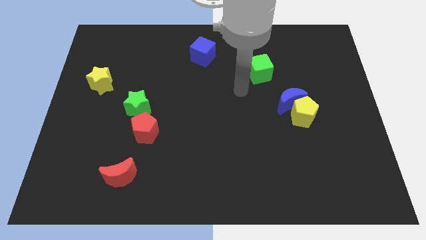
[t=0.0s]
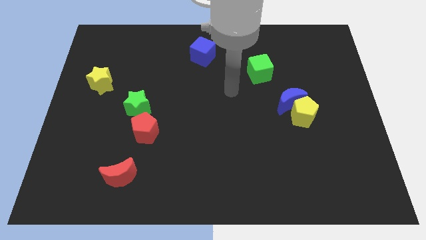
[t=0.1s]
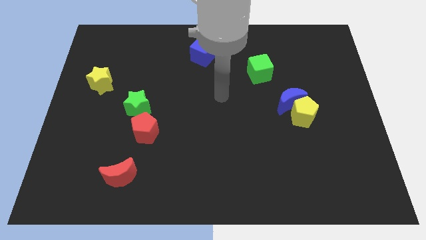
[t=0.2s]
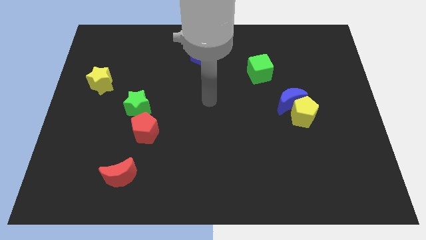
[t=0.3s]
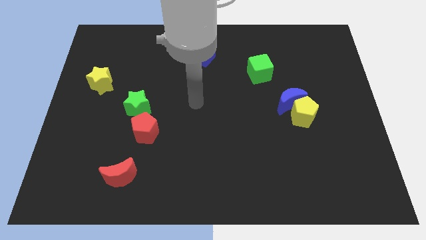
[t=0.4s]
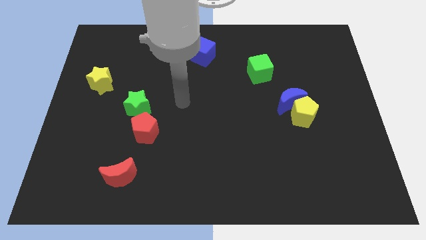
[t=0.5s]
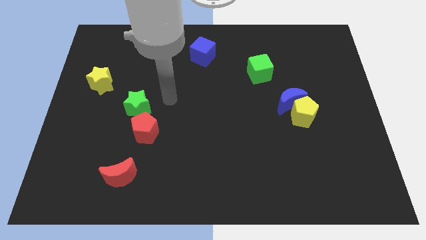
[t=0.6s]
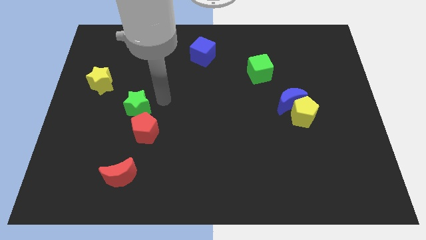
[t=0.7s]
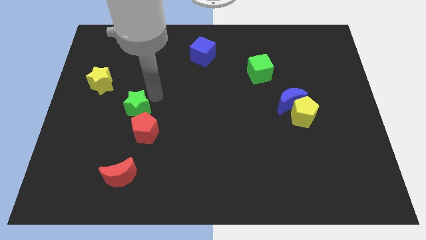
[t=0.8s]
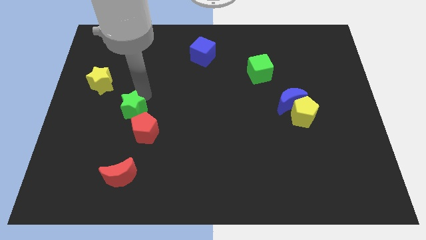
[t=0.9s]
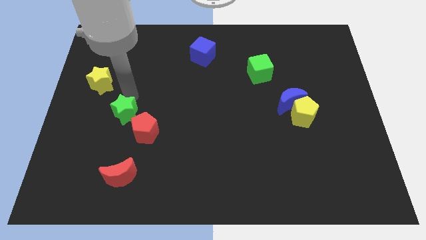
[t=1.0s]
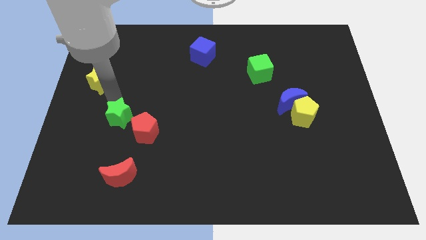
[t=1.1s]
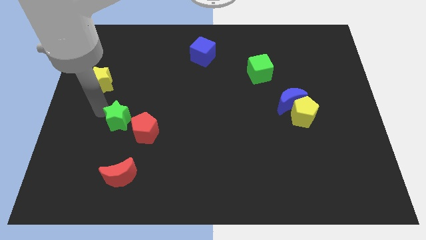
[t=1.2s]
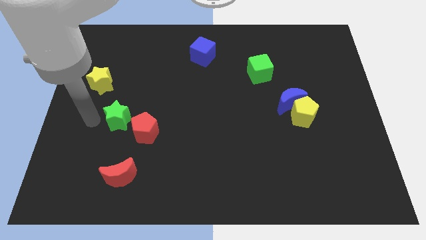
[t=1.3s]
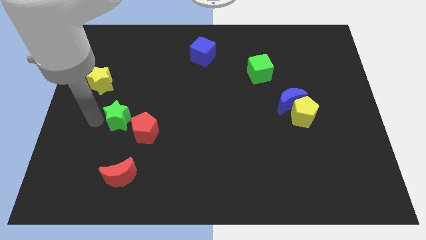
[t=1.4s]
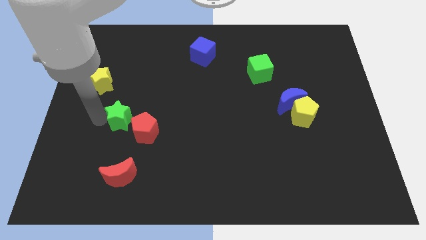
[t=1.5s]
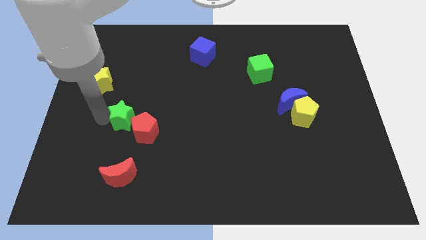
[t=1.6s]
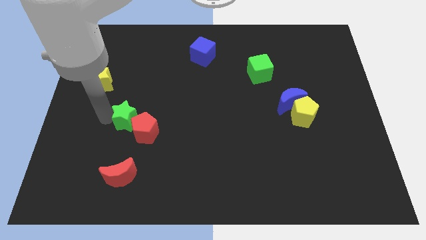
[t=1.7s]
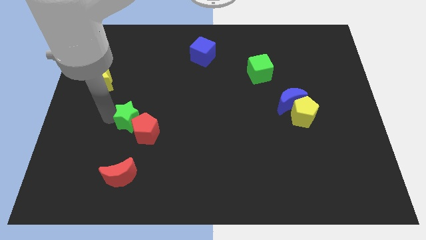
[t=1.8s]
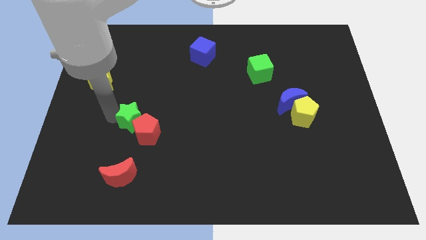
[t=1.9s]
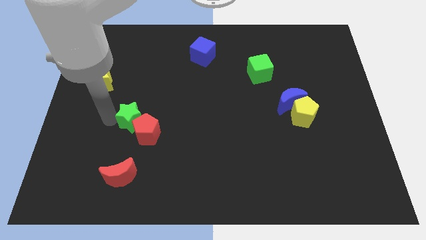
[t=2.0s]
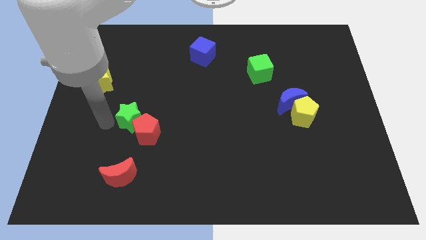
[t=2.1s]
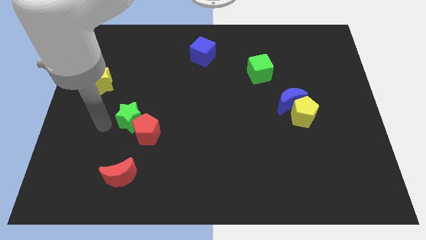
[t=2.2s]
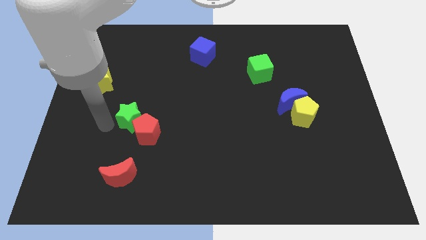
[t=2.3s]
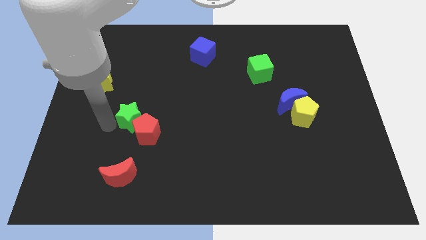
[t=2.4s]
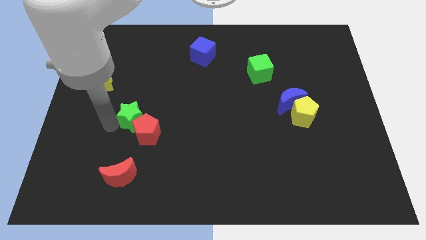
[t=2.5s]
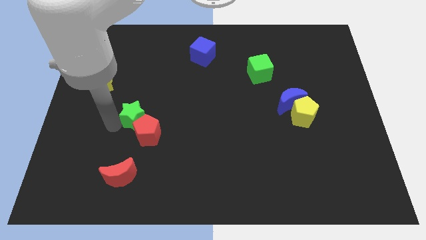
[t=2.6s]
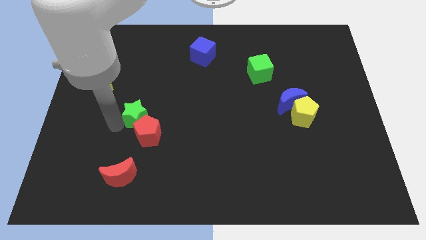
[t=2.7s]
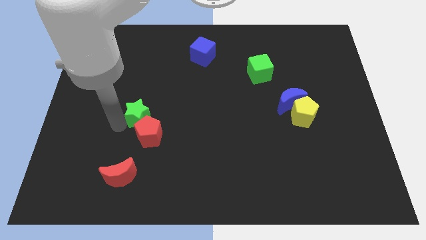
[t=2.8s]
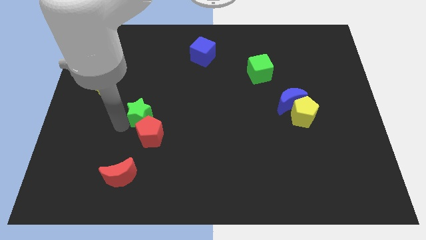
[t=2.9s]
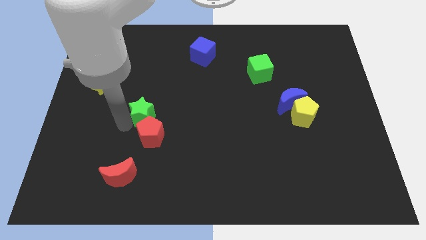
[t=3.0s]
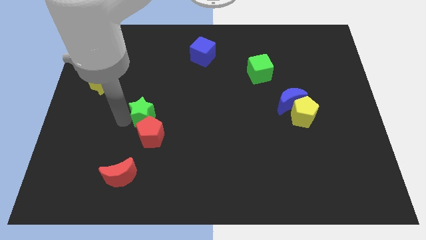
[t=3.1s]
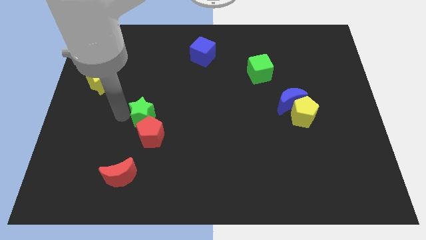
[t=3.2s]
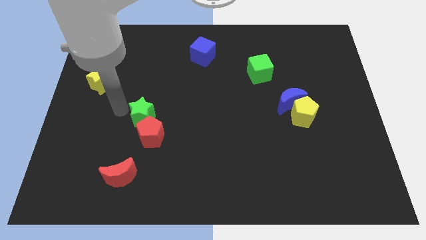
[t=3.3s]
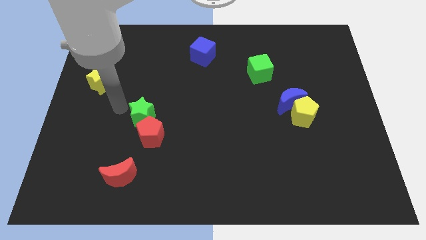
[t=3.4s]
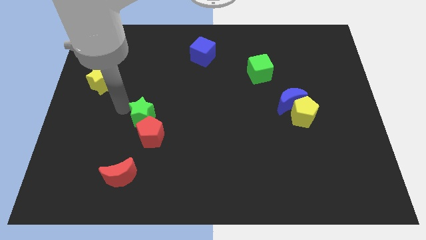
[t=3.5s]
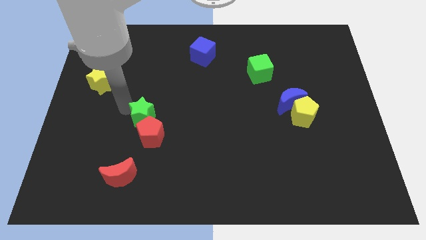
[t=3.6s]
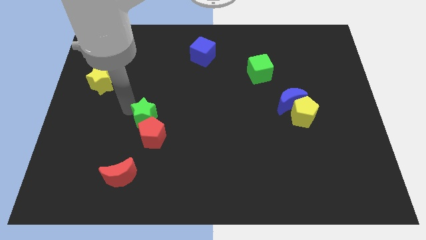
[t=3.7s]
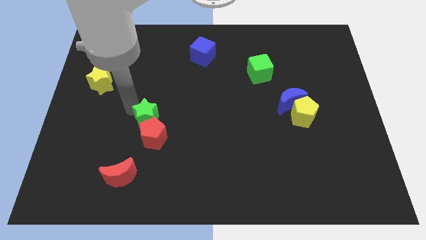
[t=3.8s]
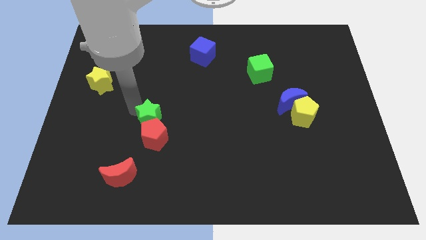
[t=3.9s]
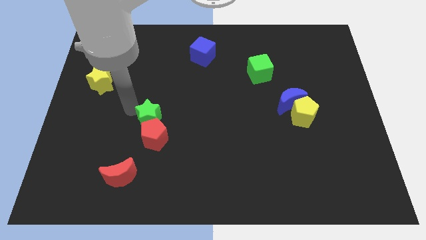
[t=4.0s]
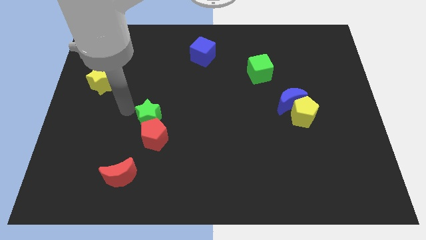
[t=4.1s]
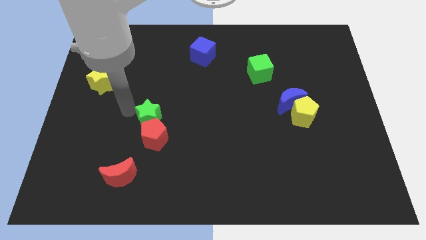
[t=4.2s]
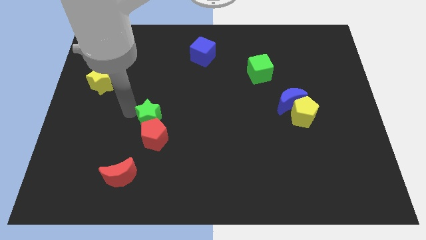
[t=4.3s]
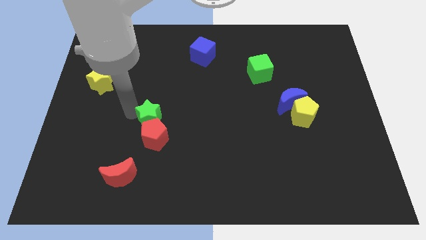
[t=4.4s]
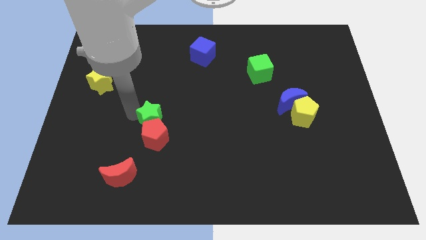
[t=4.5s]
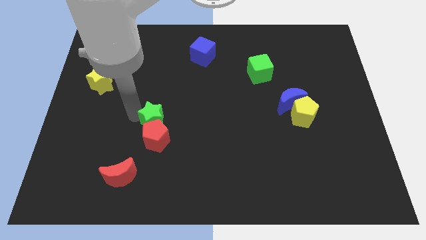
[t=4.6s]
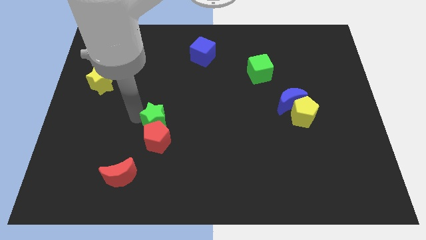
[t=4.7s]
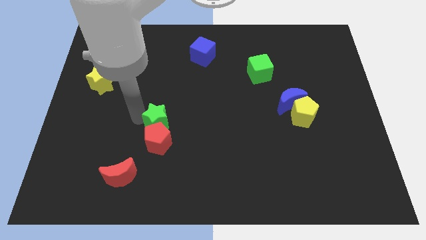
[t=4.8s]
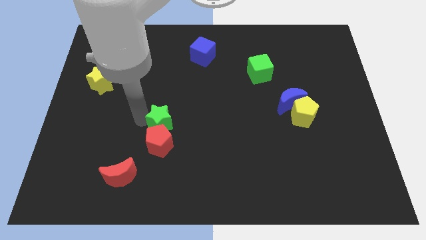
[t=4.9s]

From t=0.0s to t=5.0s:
slide the green star down and right diagonally a bit

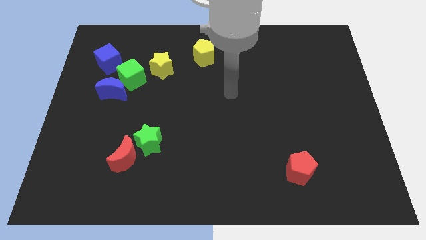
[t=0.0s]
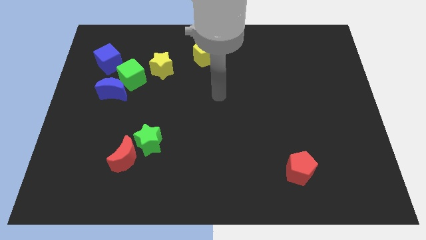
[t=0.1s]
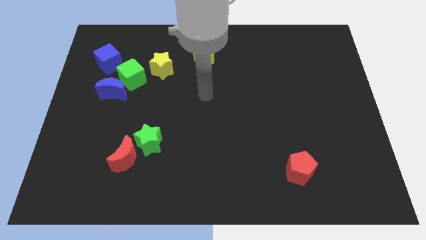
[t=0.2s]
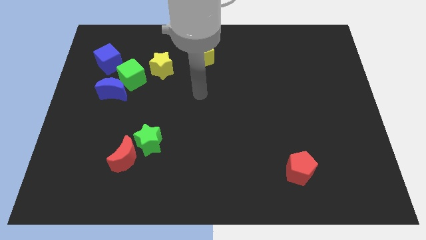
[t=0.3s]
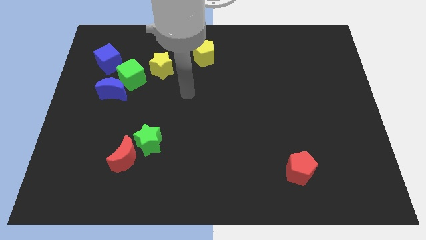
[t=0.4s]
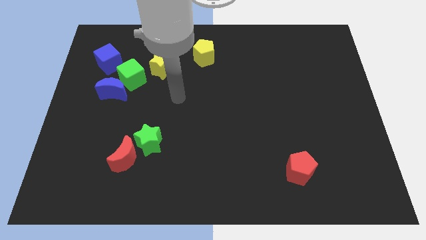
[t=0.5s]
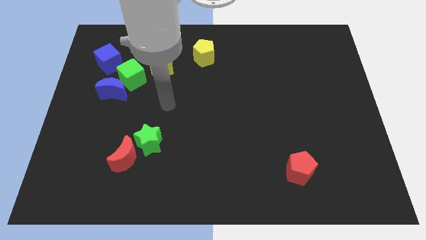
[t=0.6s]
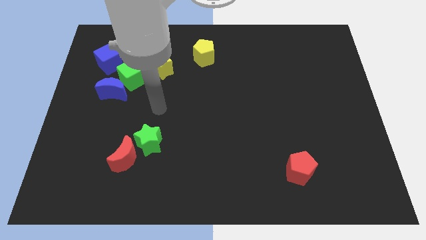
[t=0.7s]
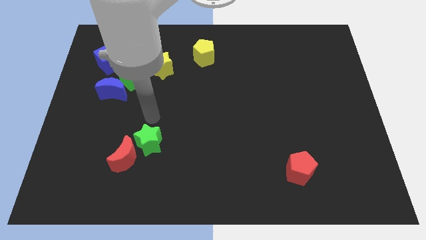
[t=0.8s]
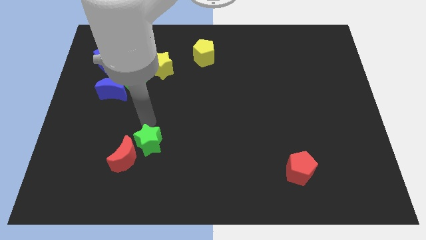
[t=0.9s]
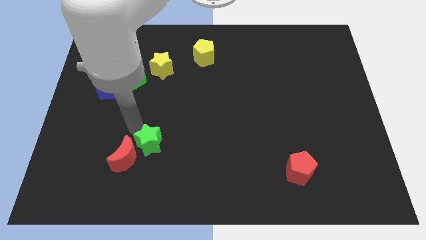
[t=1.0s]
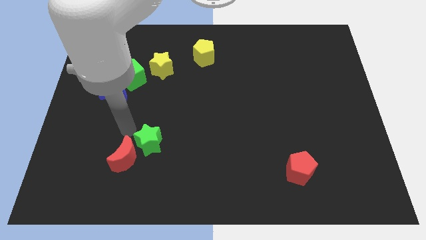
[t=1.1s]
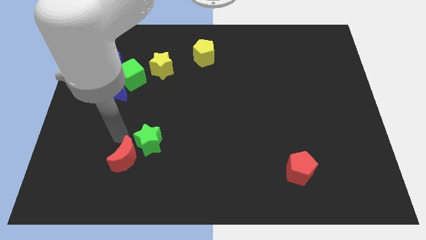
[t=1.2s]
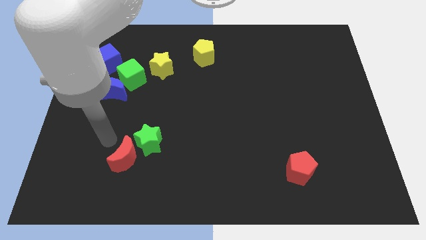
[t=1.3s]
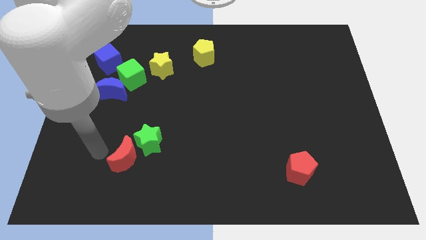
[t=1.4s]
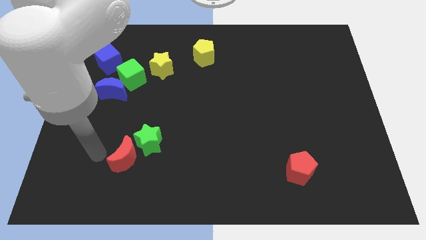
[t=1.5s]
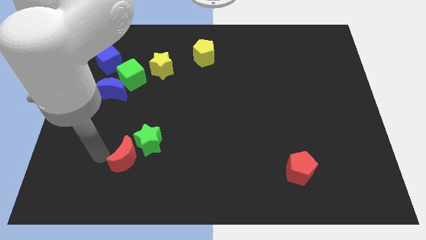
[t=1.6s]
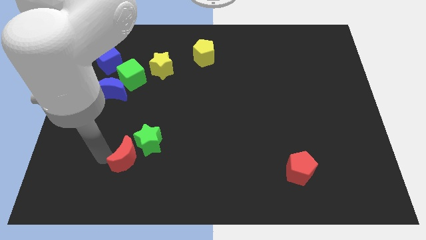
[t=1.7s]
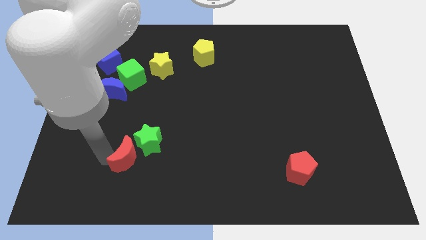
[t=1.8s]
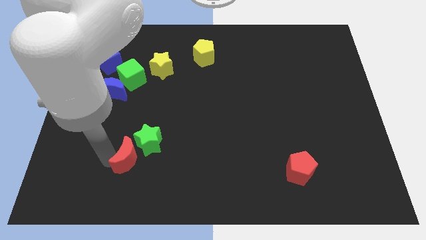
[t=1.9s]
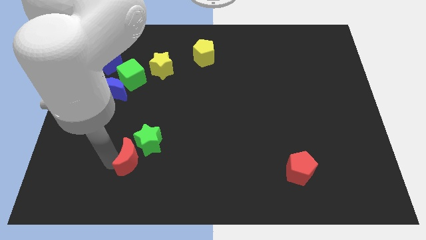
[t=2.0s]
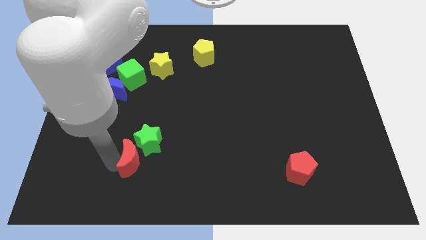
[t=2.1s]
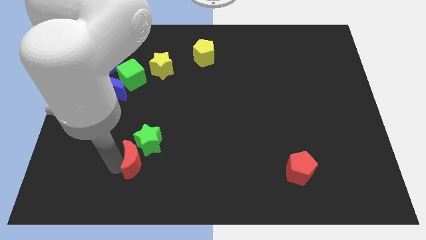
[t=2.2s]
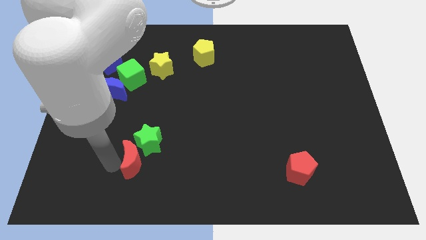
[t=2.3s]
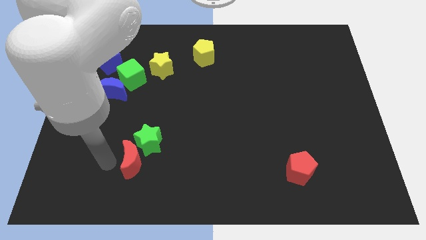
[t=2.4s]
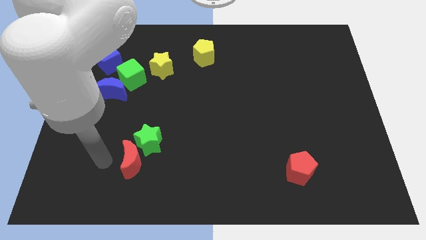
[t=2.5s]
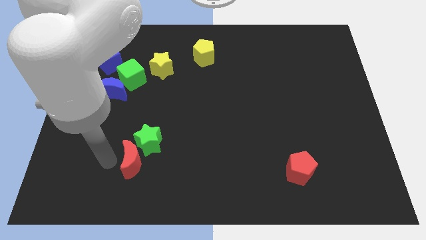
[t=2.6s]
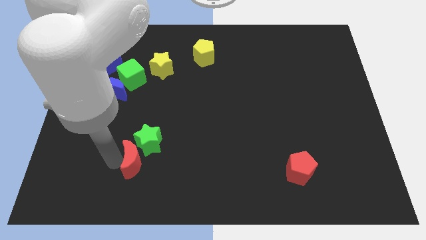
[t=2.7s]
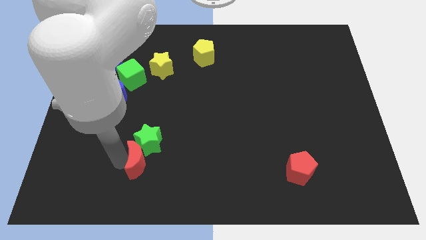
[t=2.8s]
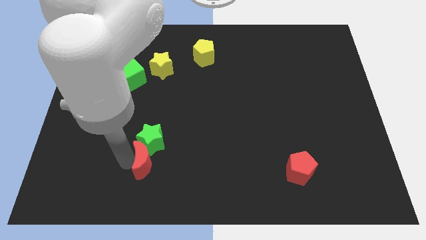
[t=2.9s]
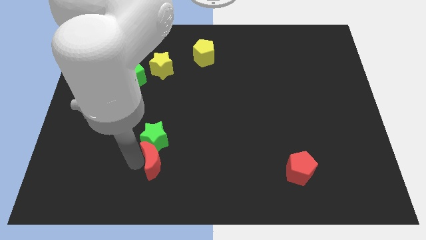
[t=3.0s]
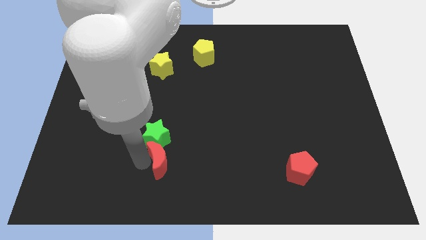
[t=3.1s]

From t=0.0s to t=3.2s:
move the red moon to the right a bit
